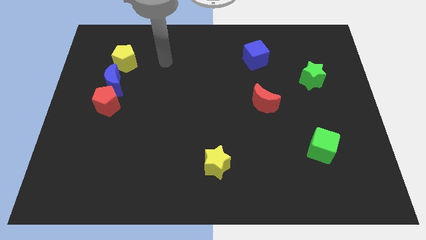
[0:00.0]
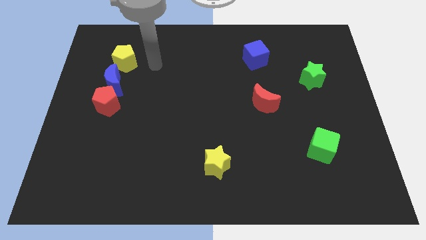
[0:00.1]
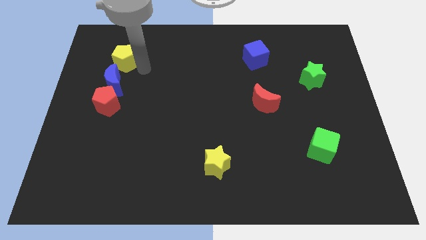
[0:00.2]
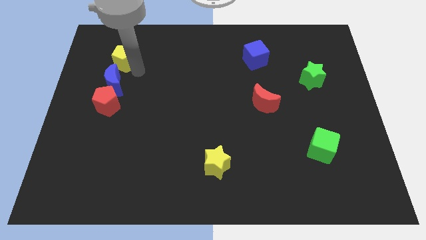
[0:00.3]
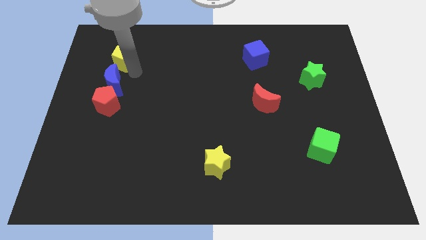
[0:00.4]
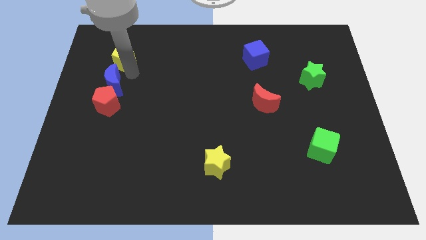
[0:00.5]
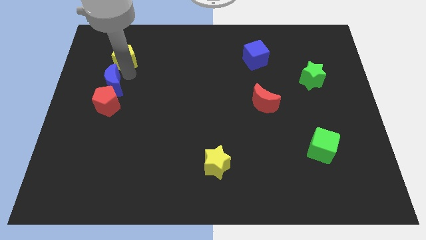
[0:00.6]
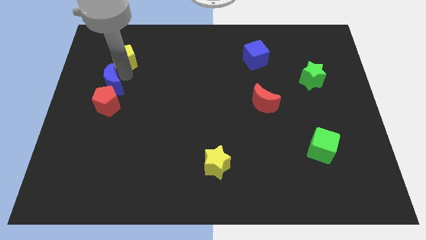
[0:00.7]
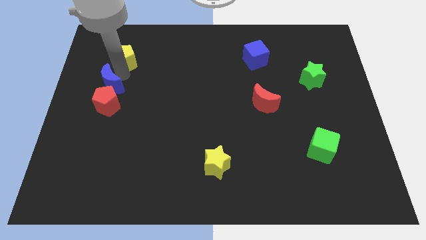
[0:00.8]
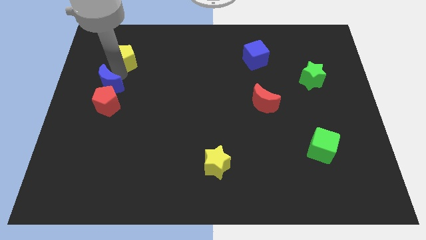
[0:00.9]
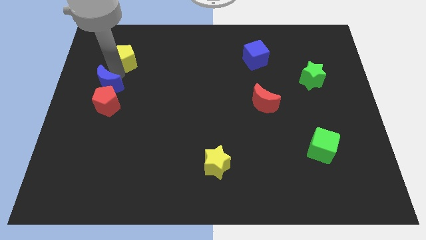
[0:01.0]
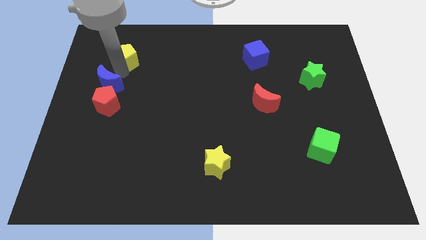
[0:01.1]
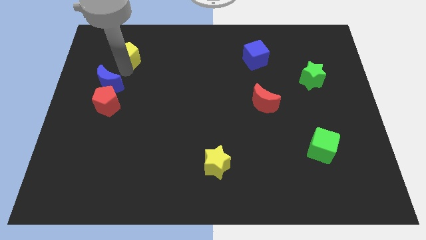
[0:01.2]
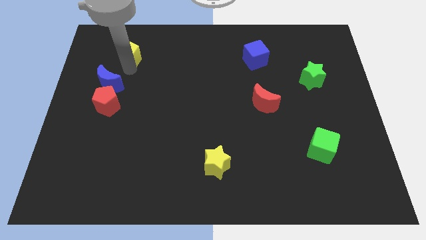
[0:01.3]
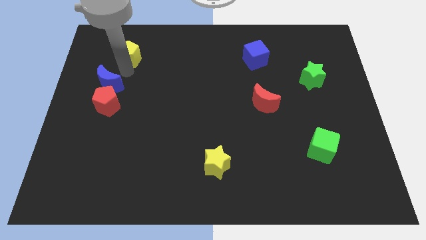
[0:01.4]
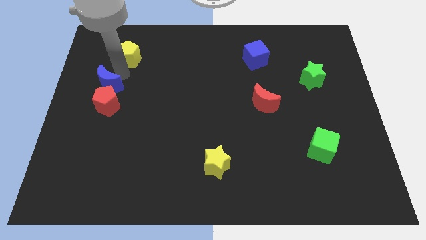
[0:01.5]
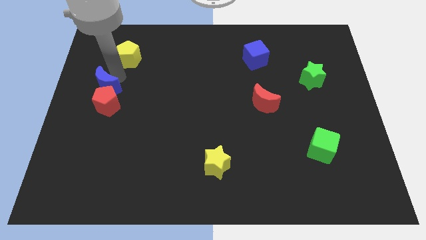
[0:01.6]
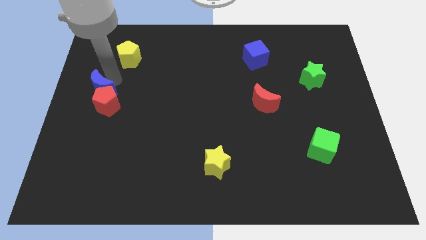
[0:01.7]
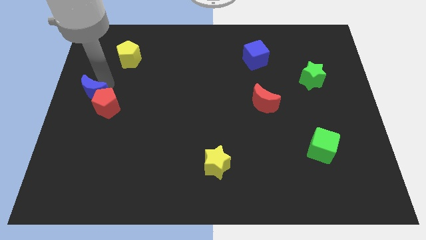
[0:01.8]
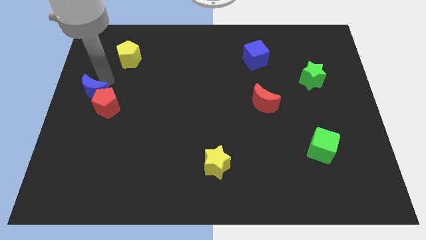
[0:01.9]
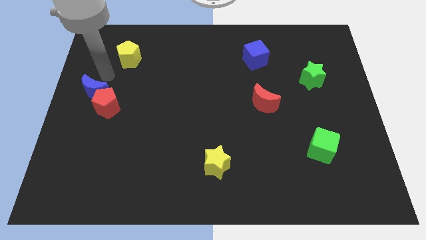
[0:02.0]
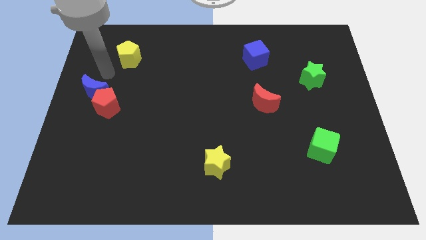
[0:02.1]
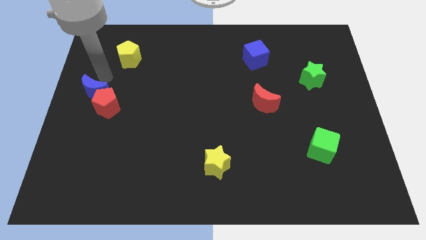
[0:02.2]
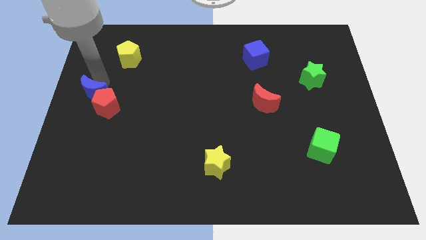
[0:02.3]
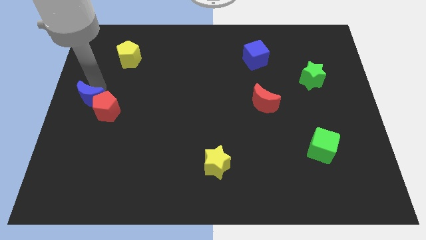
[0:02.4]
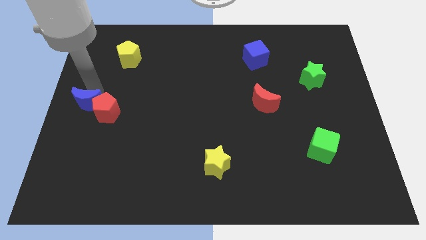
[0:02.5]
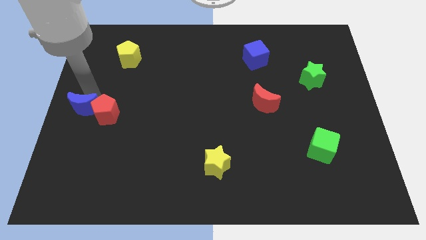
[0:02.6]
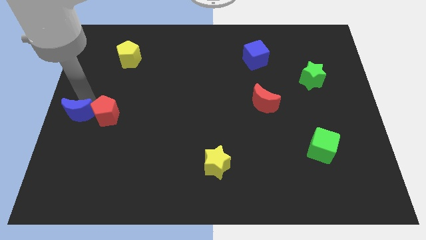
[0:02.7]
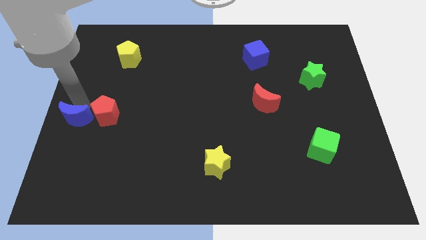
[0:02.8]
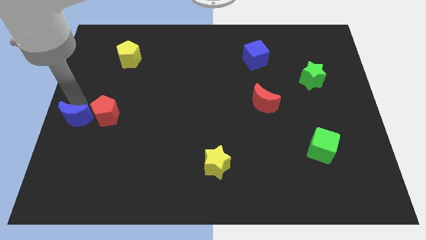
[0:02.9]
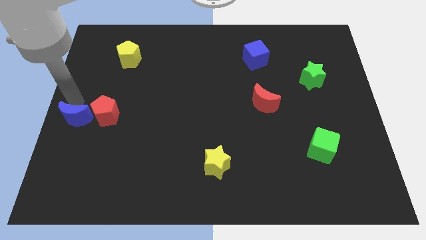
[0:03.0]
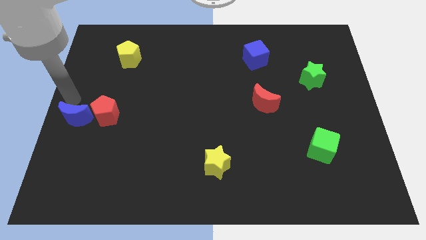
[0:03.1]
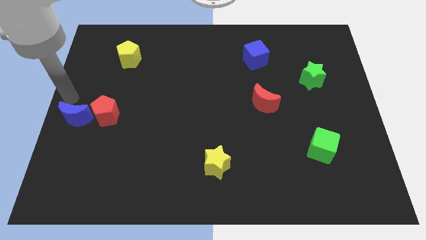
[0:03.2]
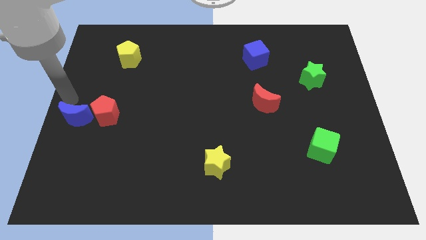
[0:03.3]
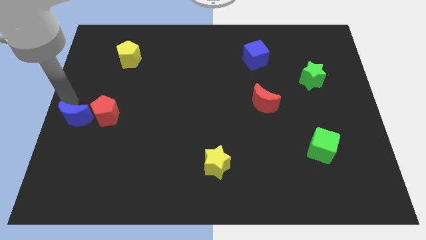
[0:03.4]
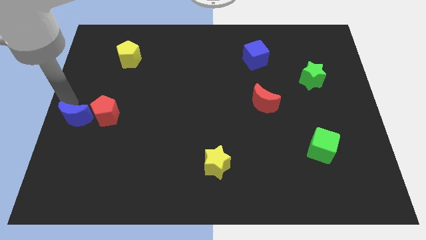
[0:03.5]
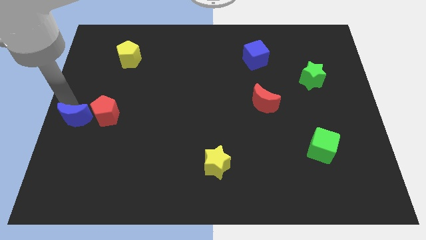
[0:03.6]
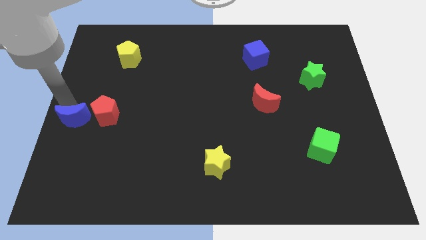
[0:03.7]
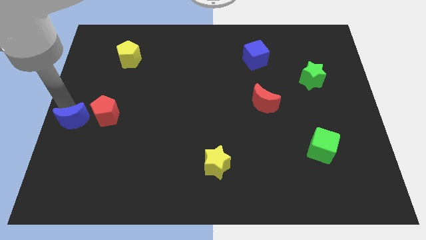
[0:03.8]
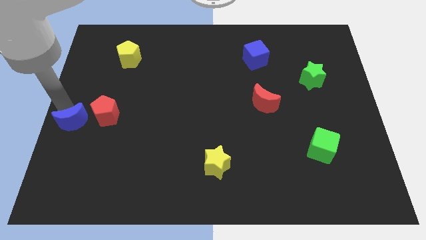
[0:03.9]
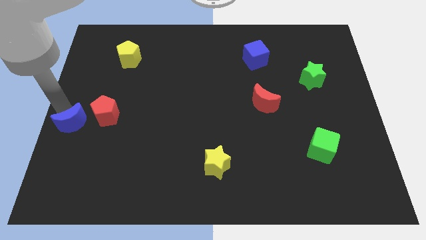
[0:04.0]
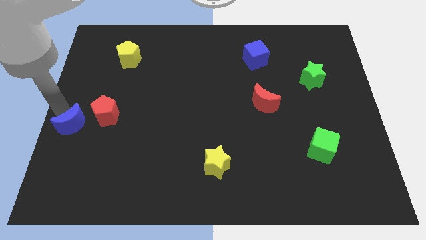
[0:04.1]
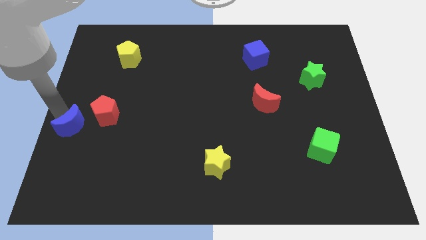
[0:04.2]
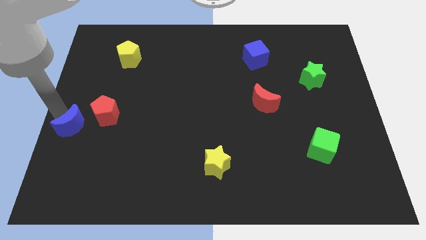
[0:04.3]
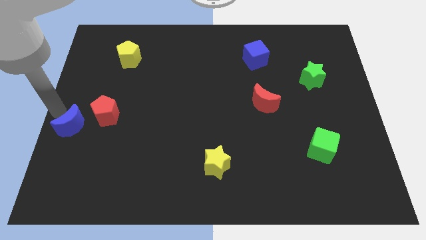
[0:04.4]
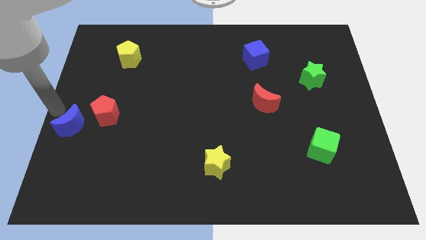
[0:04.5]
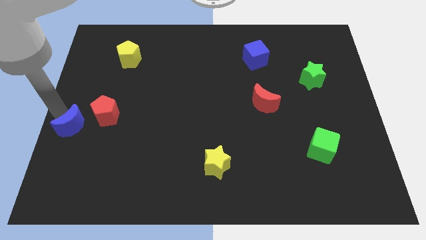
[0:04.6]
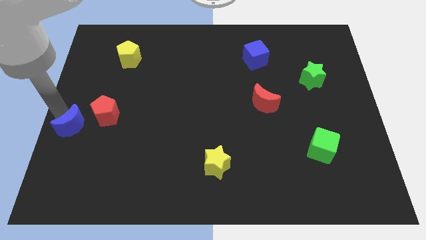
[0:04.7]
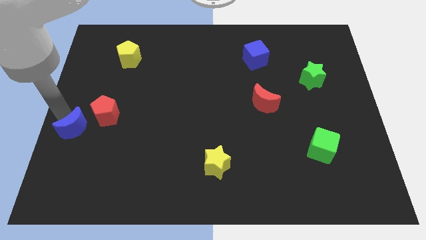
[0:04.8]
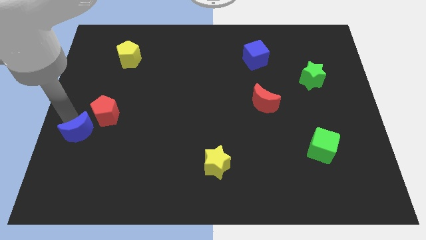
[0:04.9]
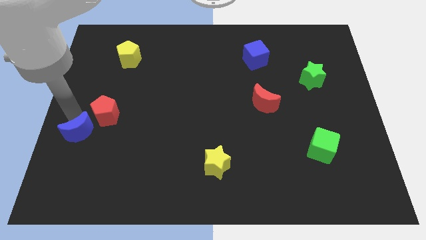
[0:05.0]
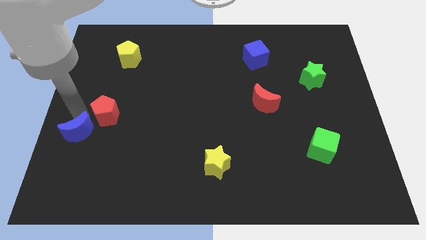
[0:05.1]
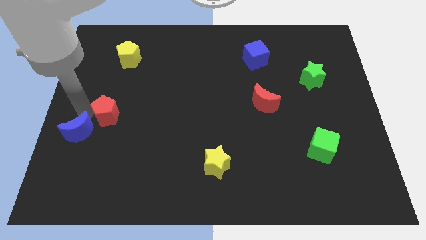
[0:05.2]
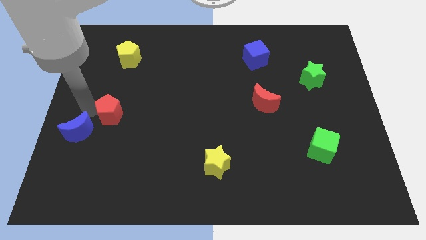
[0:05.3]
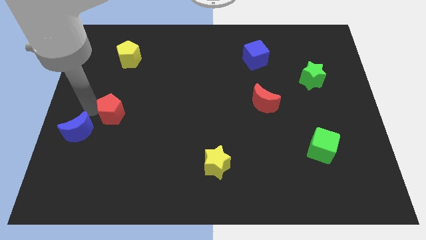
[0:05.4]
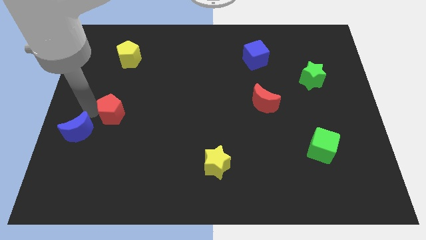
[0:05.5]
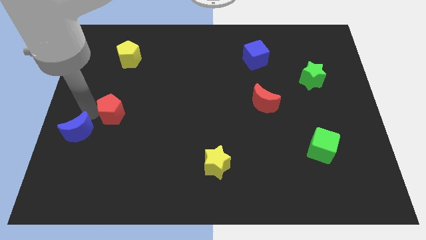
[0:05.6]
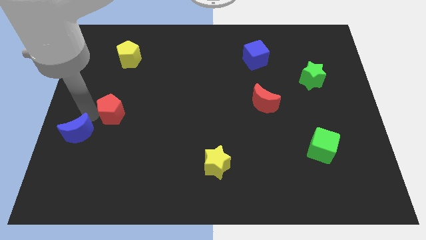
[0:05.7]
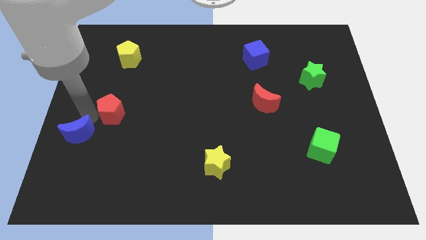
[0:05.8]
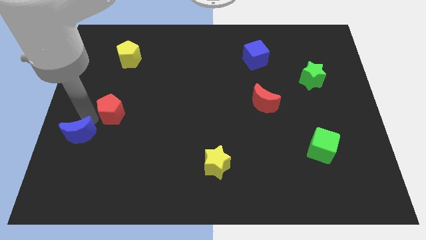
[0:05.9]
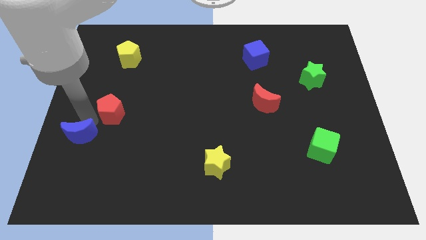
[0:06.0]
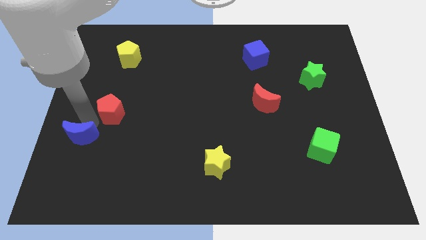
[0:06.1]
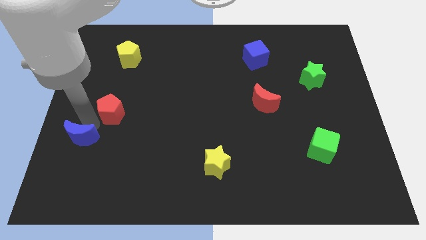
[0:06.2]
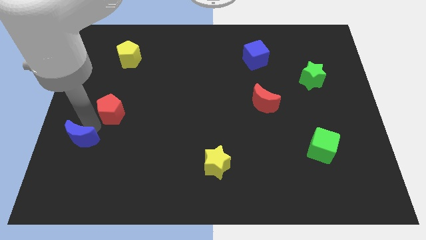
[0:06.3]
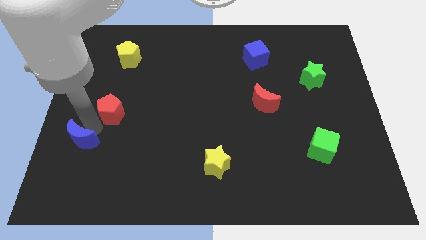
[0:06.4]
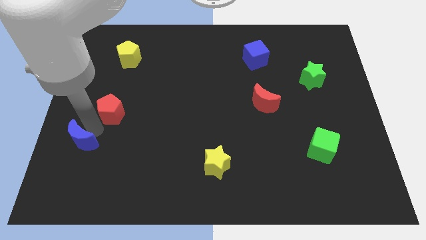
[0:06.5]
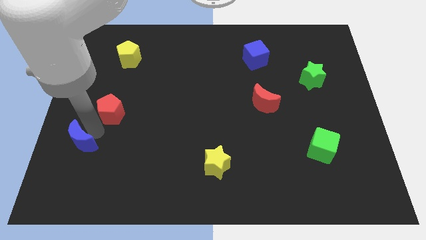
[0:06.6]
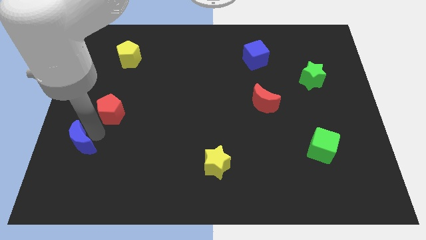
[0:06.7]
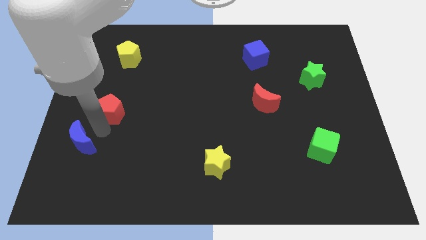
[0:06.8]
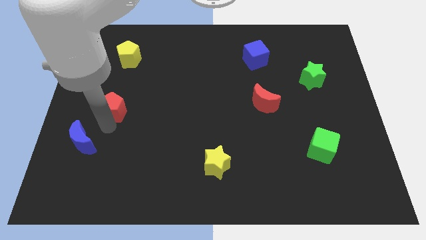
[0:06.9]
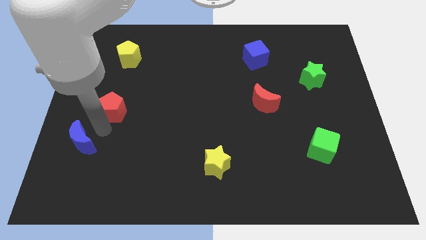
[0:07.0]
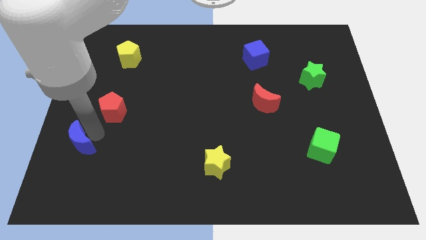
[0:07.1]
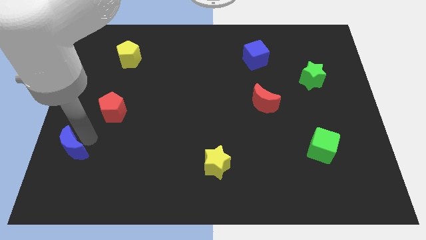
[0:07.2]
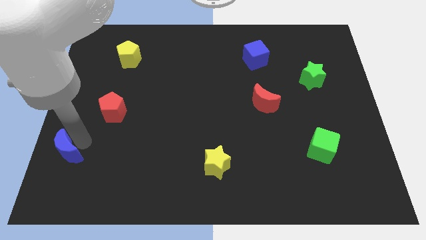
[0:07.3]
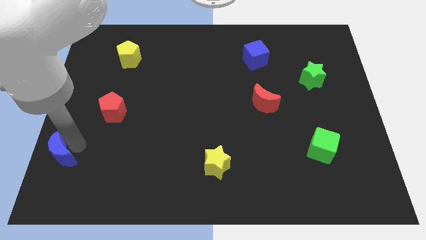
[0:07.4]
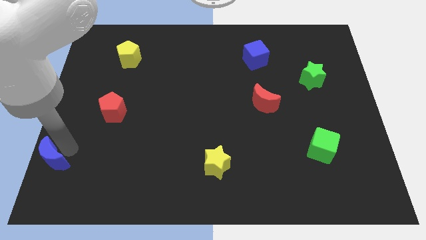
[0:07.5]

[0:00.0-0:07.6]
put the blue moon to the bottom left

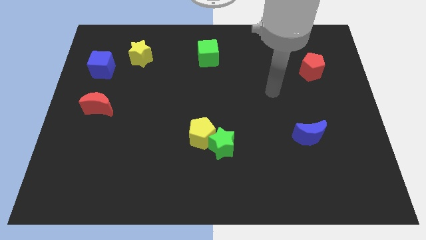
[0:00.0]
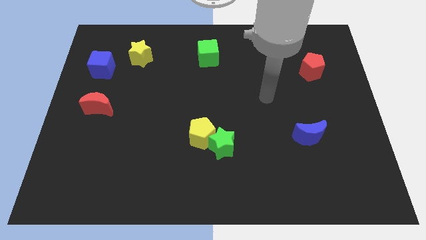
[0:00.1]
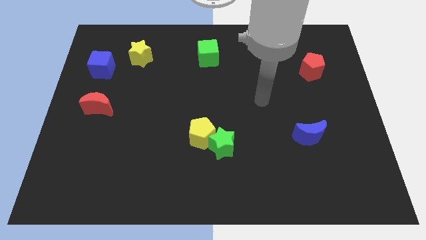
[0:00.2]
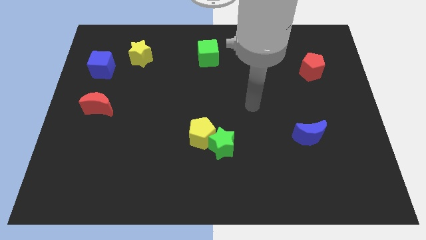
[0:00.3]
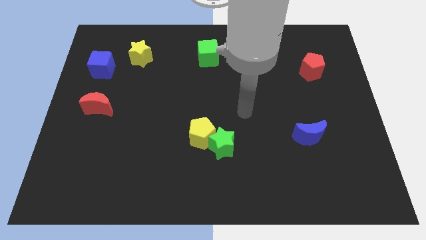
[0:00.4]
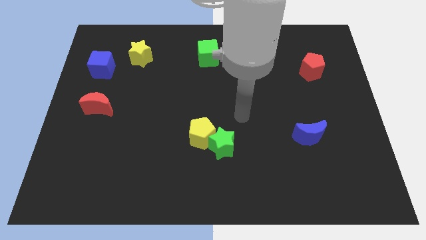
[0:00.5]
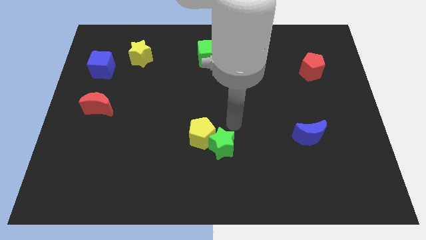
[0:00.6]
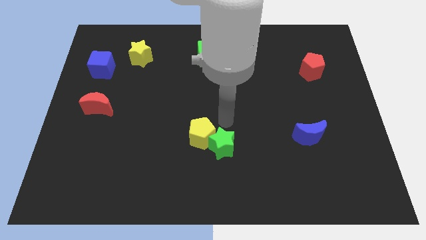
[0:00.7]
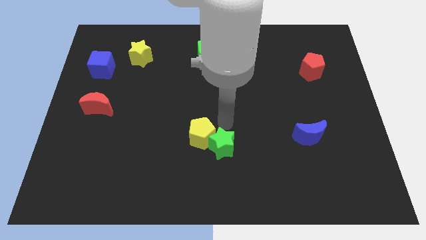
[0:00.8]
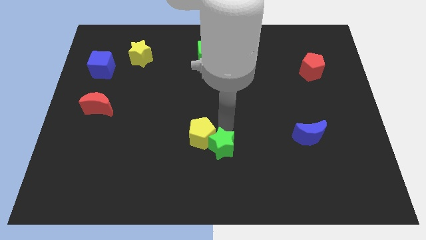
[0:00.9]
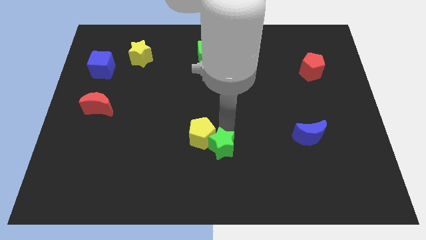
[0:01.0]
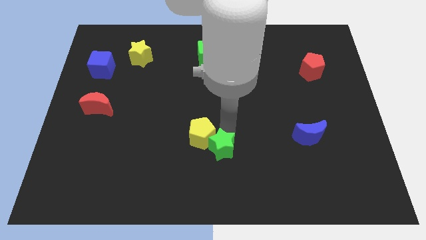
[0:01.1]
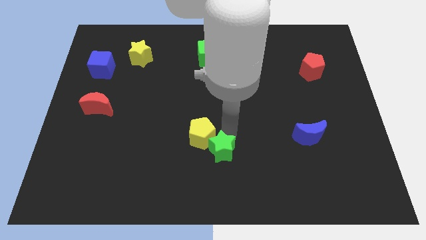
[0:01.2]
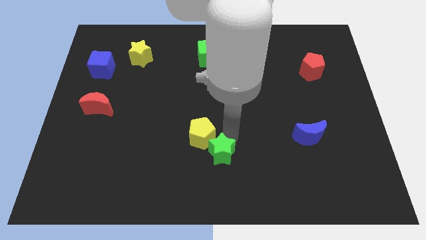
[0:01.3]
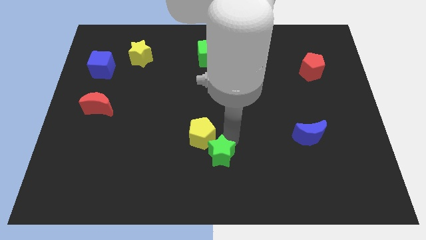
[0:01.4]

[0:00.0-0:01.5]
slide the green star to the bottom side
